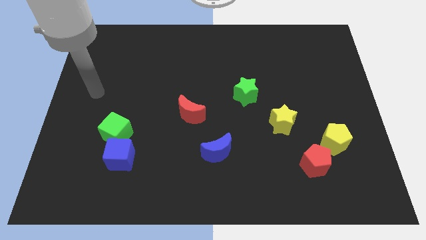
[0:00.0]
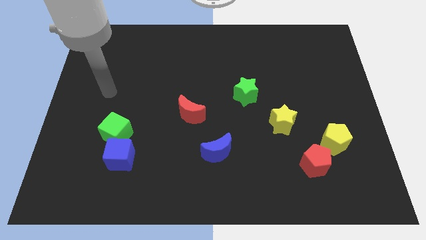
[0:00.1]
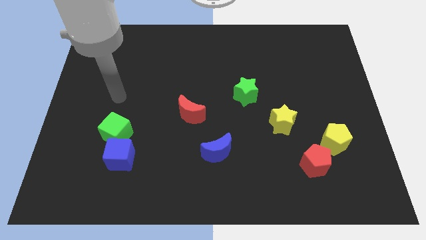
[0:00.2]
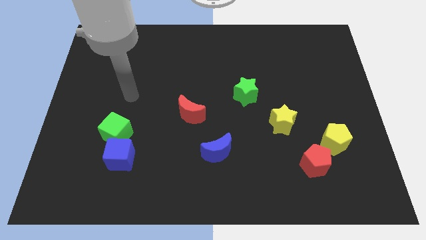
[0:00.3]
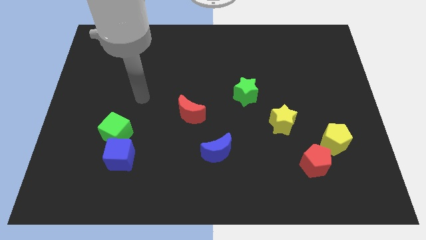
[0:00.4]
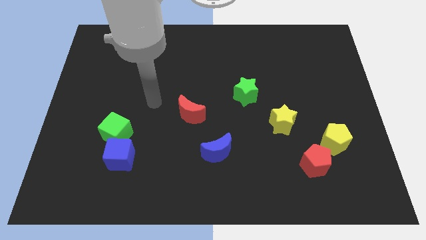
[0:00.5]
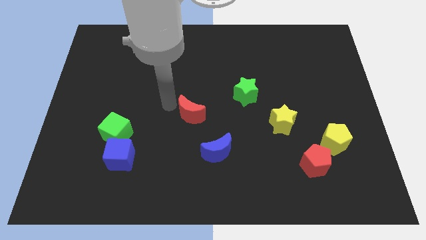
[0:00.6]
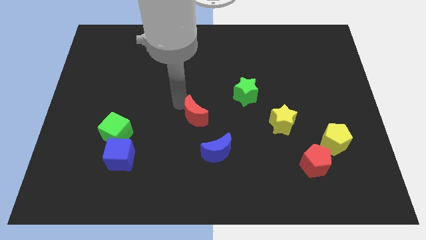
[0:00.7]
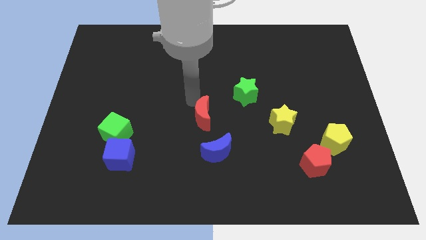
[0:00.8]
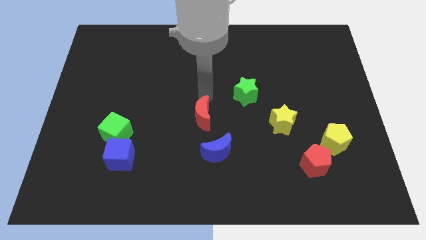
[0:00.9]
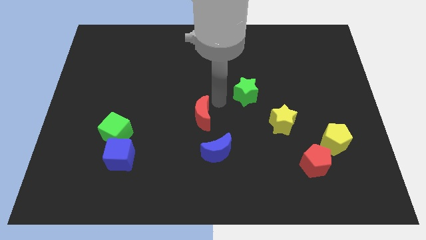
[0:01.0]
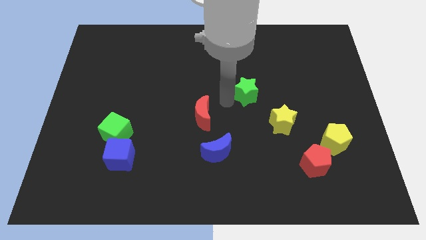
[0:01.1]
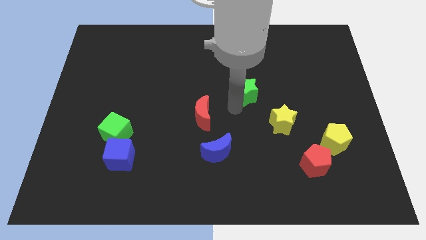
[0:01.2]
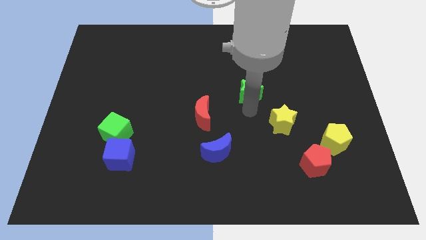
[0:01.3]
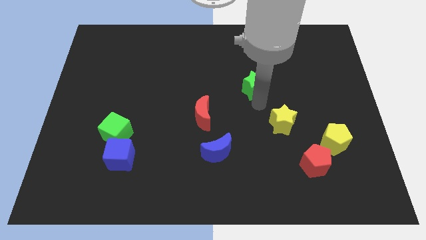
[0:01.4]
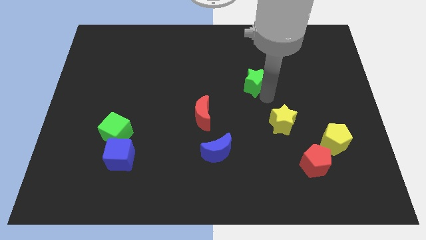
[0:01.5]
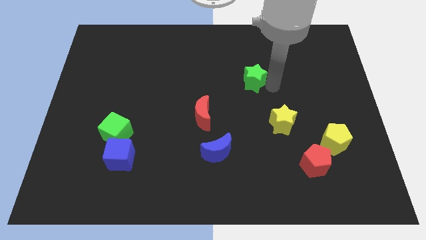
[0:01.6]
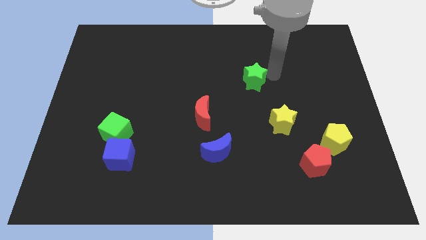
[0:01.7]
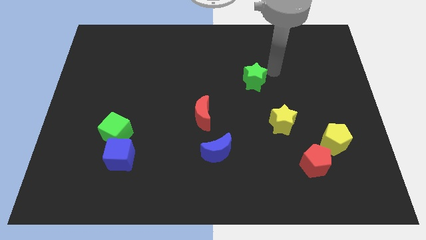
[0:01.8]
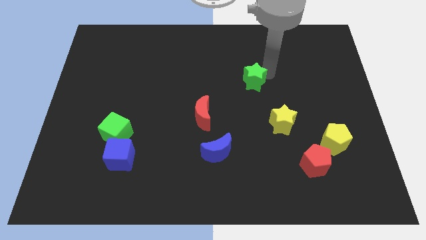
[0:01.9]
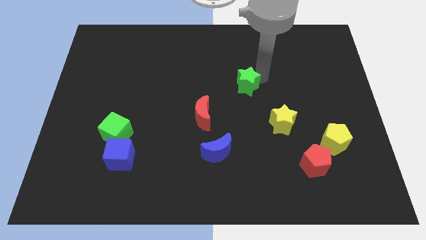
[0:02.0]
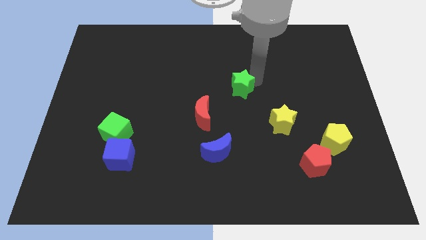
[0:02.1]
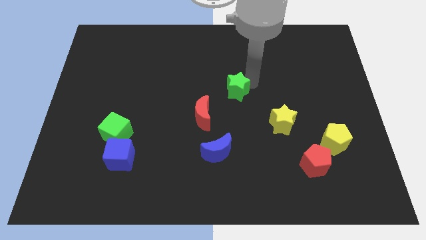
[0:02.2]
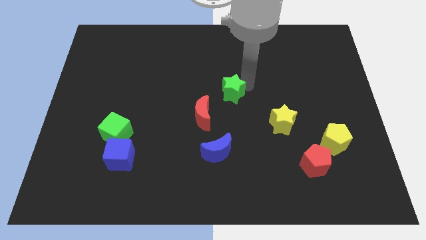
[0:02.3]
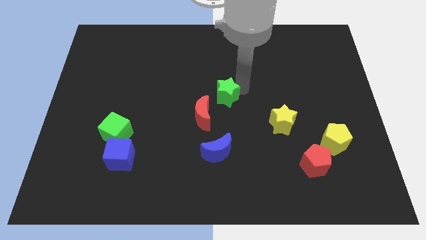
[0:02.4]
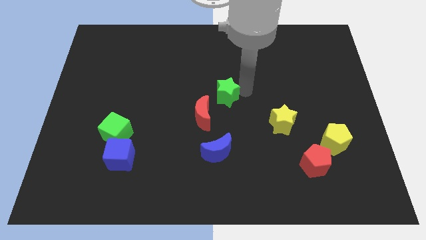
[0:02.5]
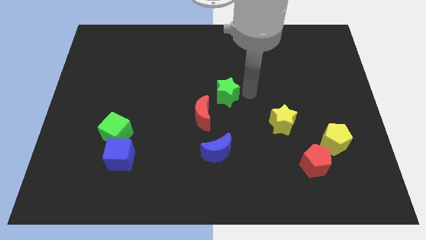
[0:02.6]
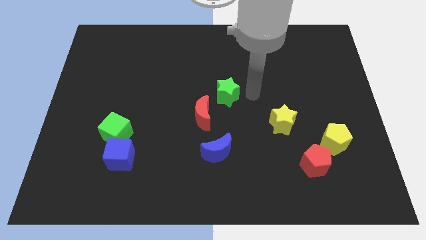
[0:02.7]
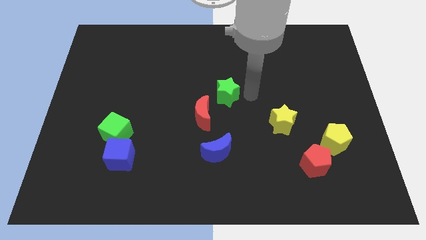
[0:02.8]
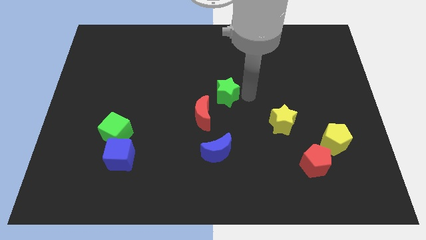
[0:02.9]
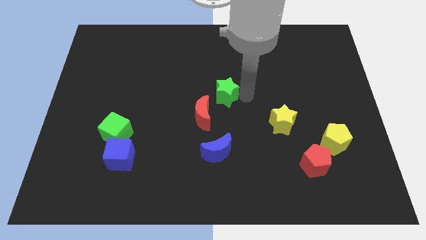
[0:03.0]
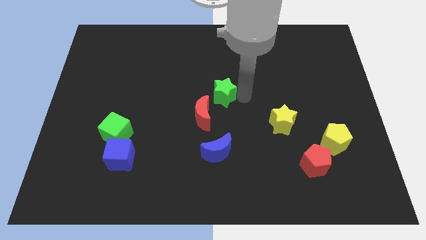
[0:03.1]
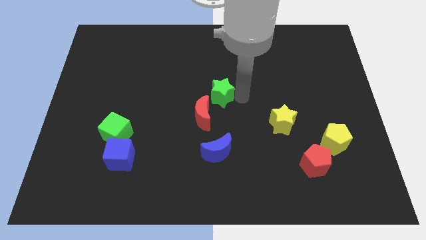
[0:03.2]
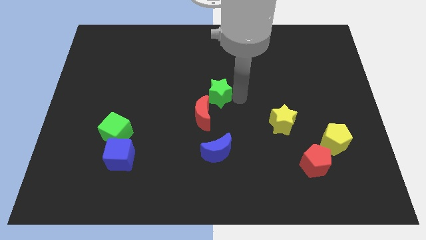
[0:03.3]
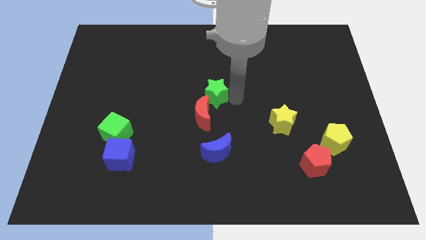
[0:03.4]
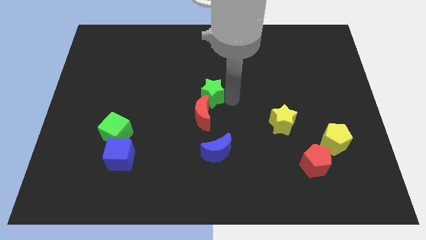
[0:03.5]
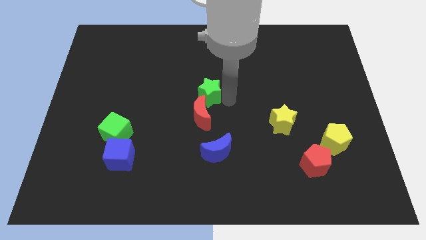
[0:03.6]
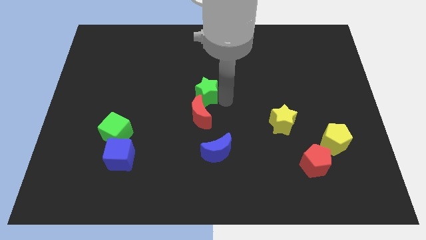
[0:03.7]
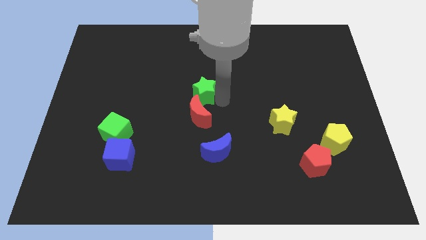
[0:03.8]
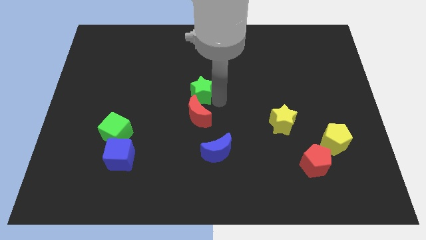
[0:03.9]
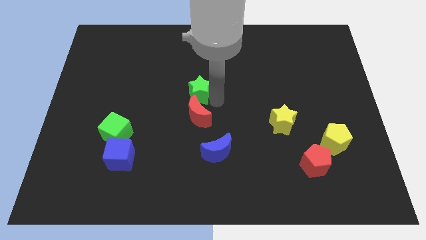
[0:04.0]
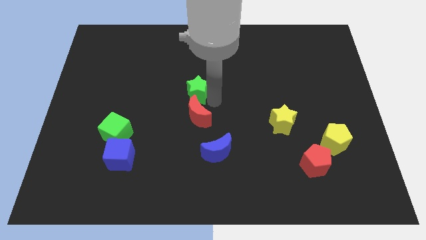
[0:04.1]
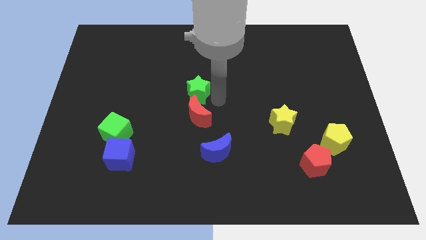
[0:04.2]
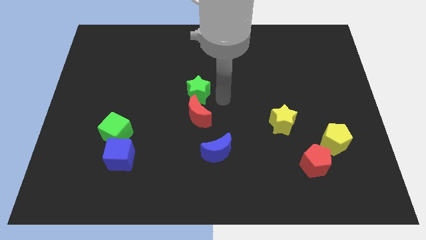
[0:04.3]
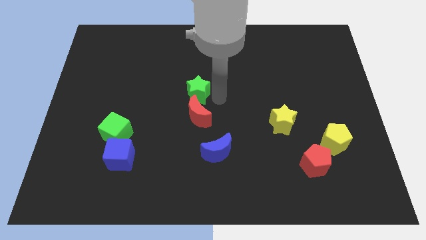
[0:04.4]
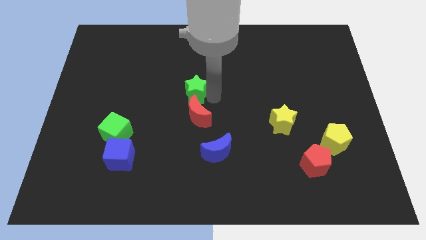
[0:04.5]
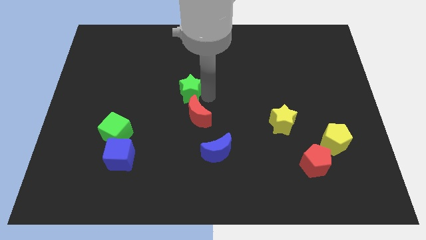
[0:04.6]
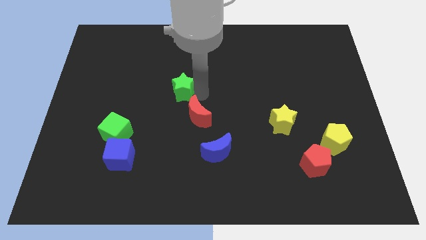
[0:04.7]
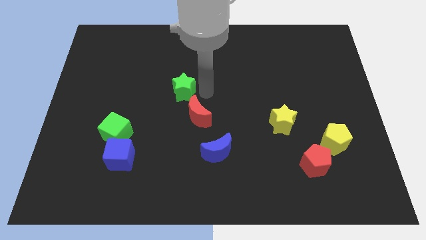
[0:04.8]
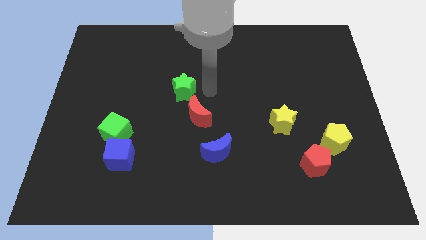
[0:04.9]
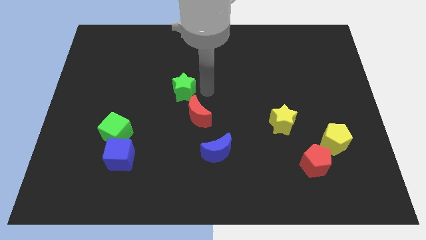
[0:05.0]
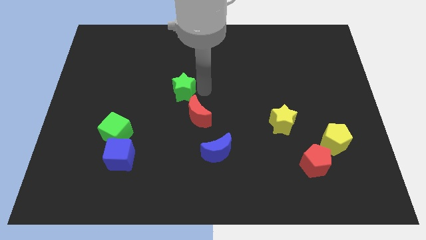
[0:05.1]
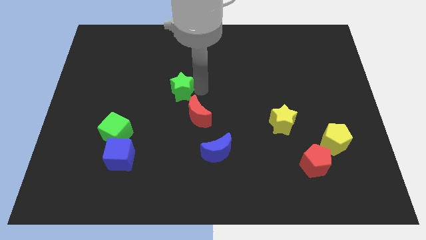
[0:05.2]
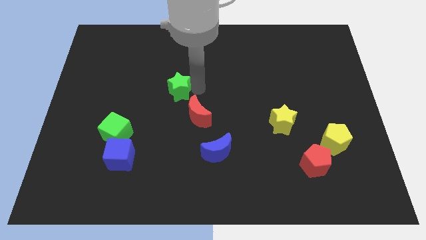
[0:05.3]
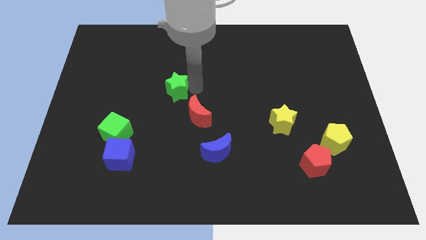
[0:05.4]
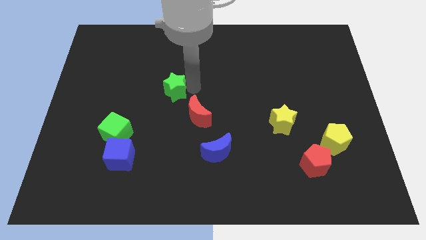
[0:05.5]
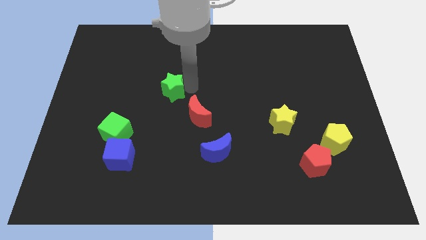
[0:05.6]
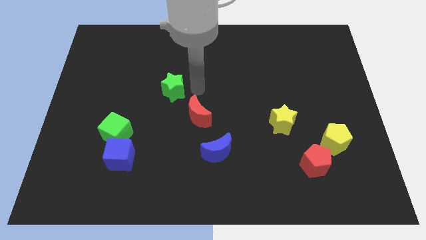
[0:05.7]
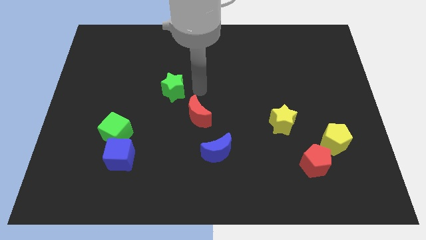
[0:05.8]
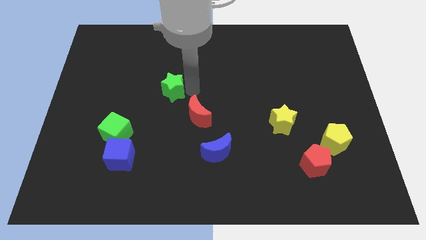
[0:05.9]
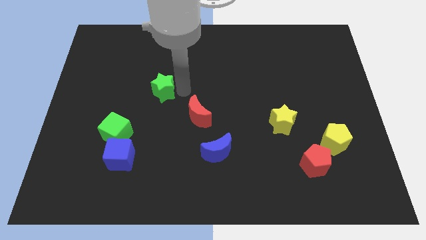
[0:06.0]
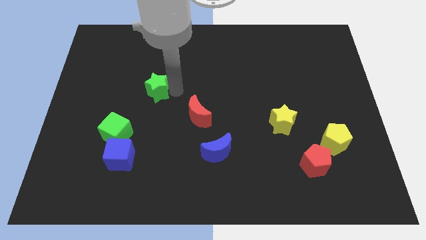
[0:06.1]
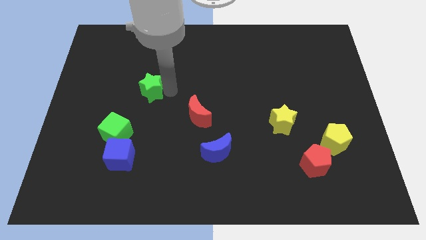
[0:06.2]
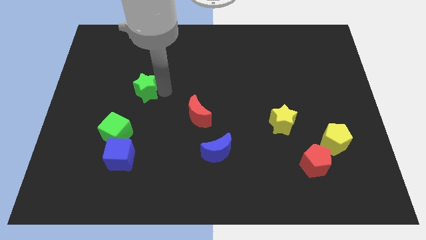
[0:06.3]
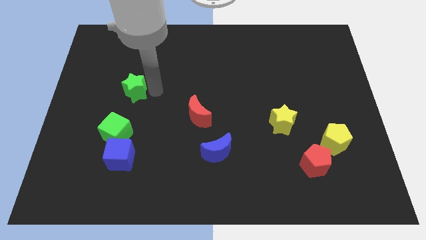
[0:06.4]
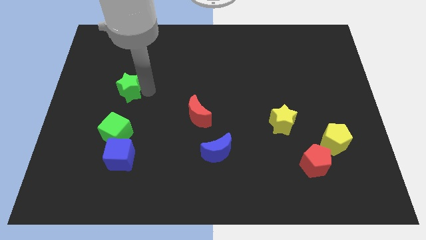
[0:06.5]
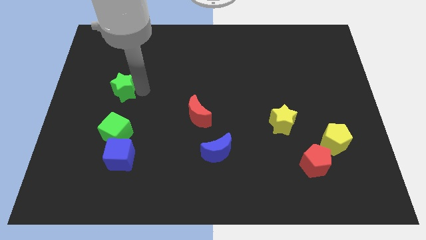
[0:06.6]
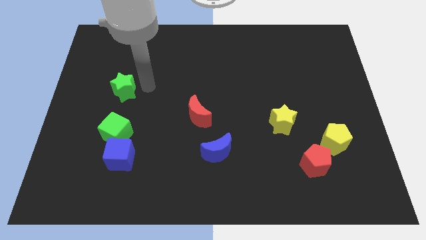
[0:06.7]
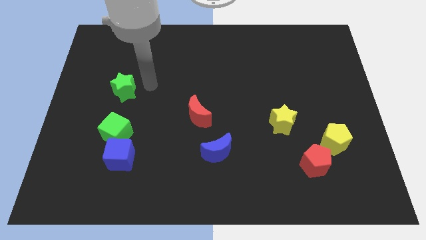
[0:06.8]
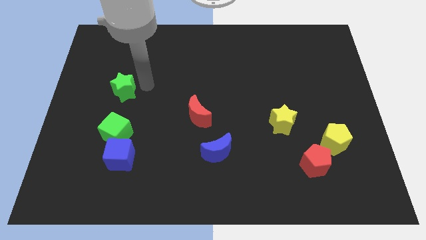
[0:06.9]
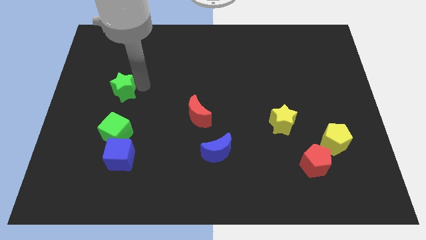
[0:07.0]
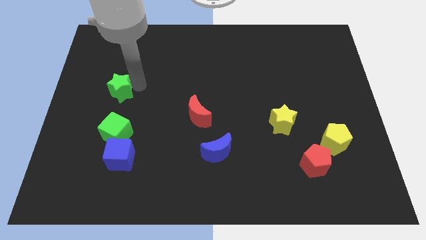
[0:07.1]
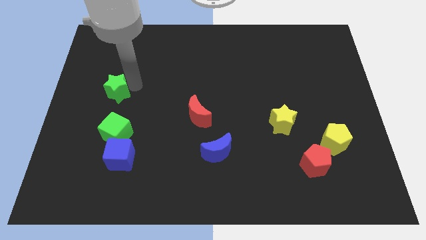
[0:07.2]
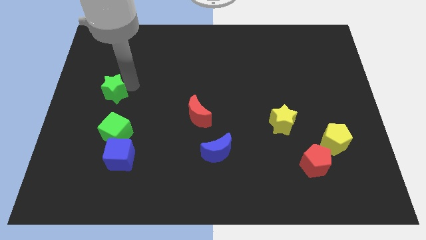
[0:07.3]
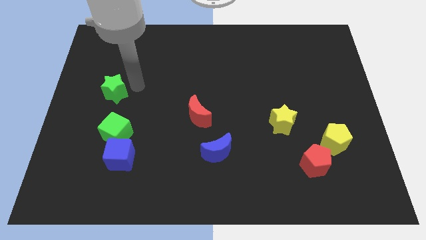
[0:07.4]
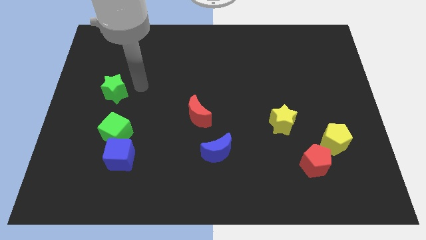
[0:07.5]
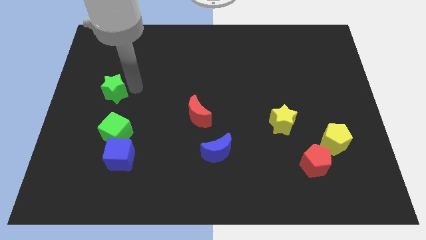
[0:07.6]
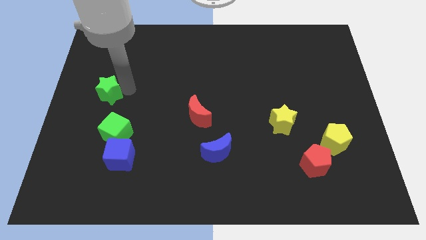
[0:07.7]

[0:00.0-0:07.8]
move the green star to the left side
